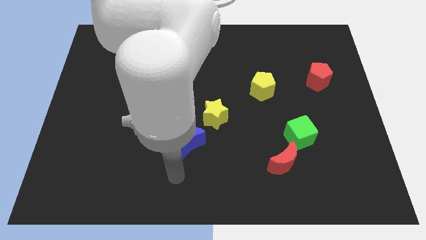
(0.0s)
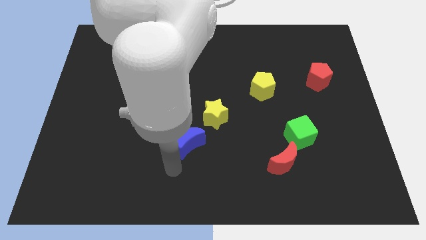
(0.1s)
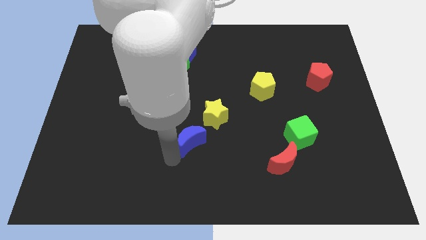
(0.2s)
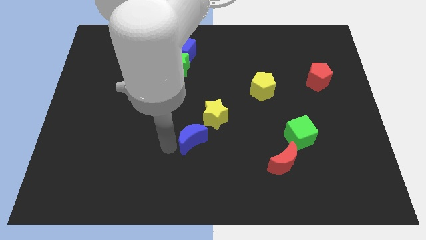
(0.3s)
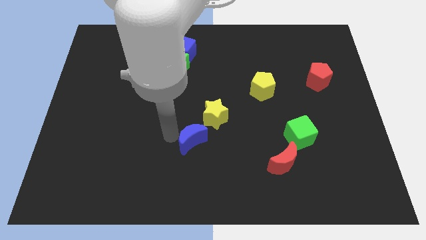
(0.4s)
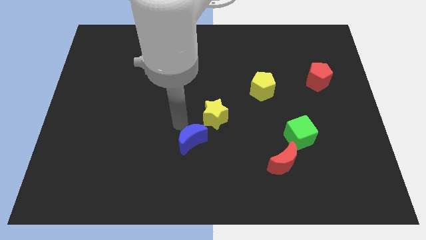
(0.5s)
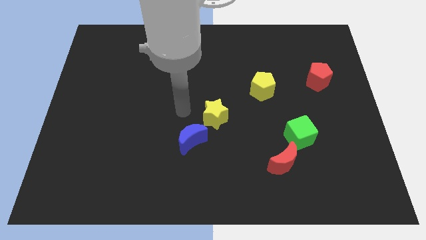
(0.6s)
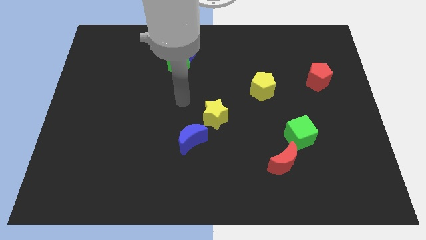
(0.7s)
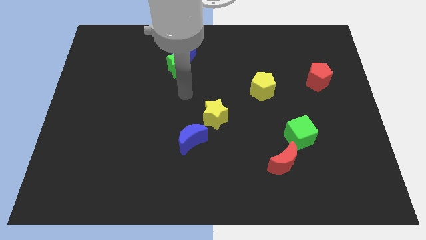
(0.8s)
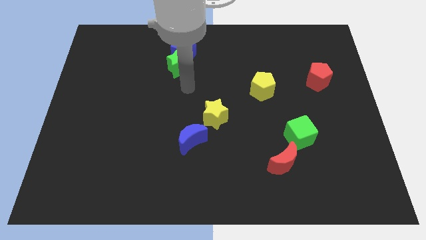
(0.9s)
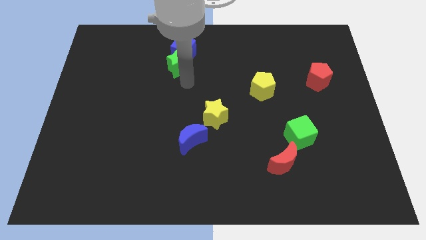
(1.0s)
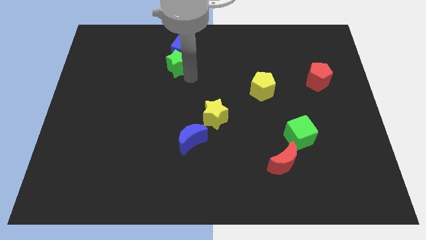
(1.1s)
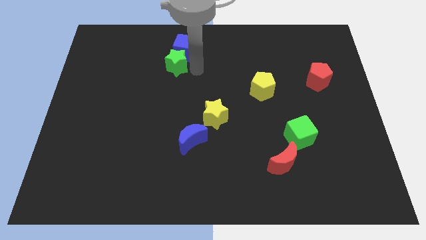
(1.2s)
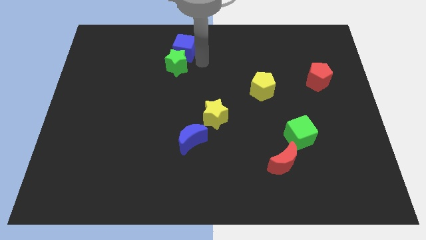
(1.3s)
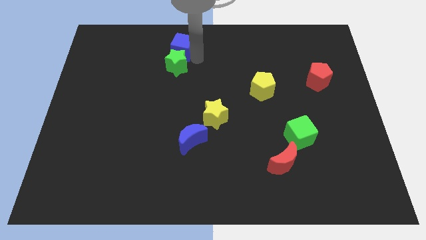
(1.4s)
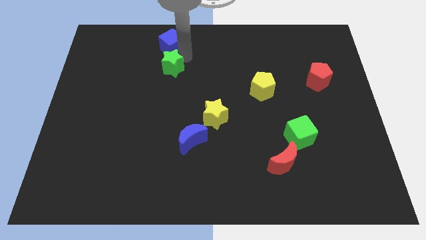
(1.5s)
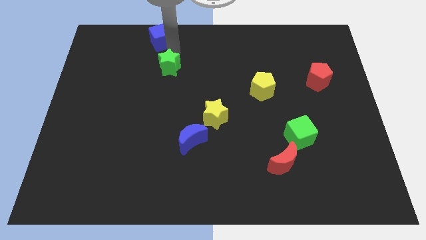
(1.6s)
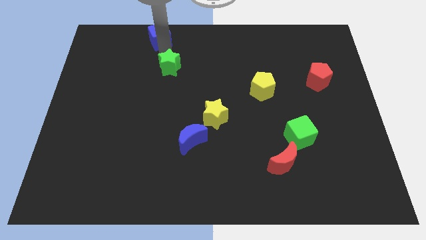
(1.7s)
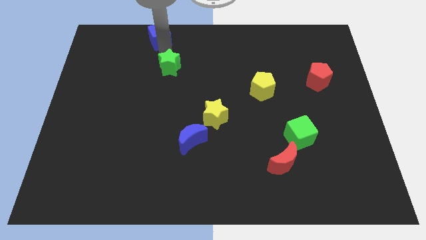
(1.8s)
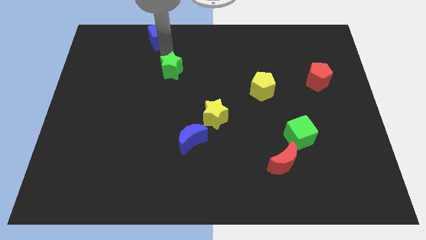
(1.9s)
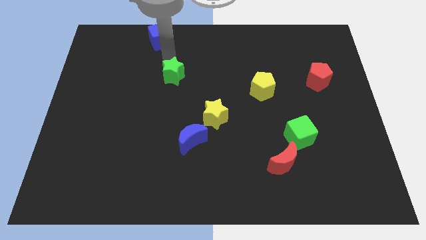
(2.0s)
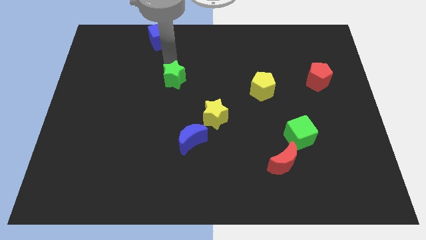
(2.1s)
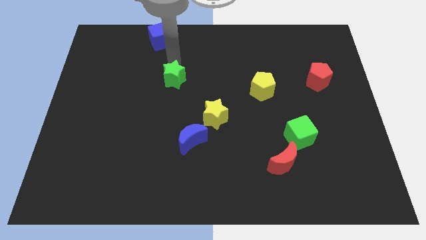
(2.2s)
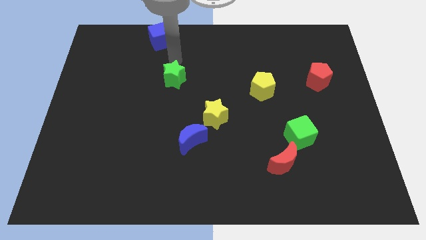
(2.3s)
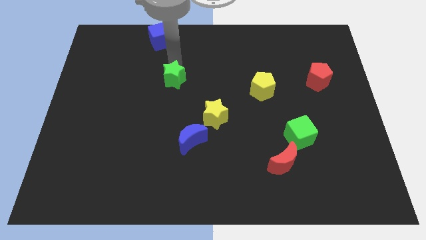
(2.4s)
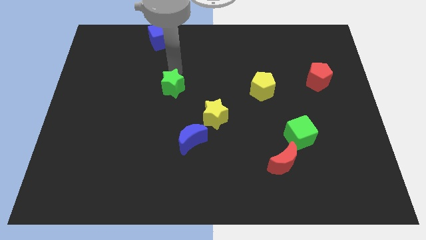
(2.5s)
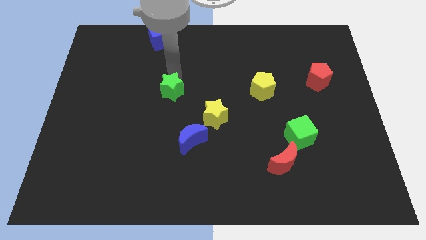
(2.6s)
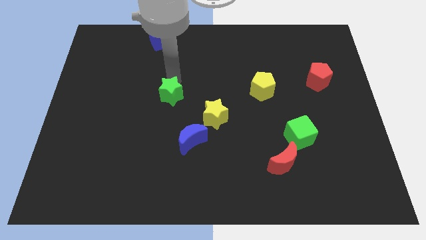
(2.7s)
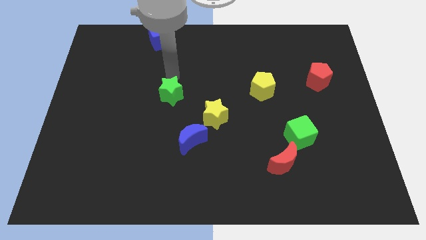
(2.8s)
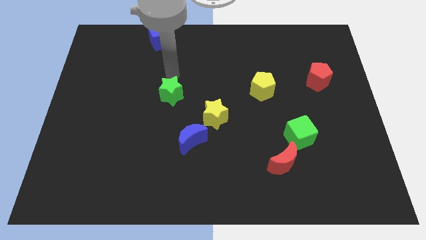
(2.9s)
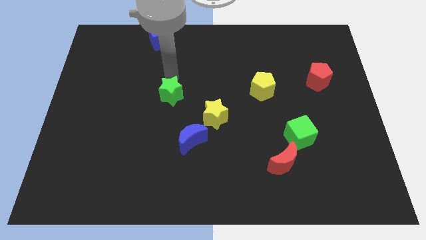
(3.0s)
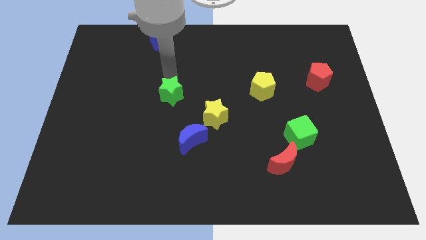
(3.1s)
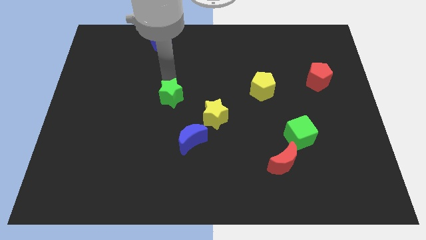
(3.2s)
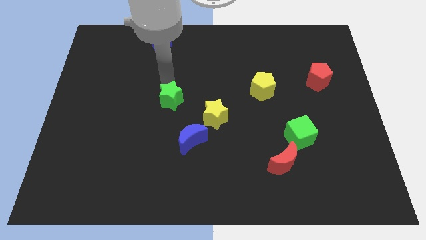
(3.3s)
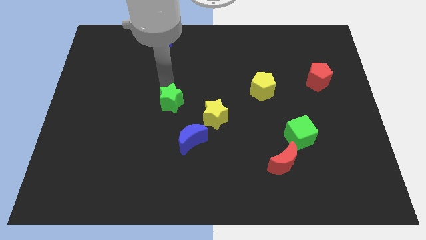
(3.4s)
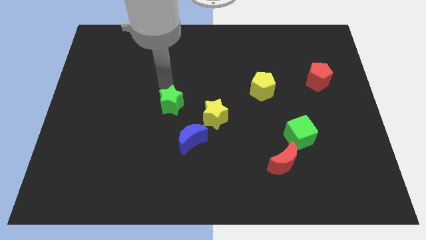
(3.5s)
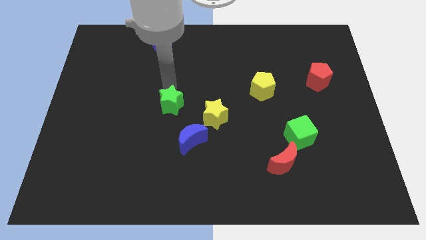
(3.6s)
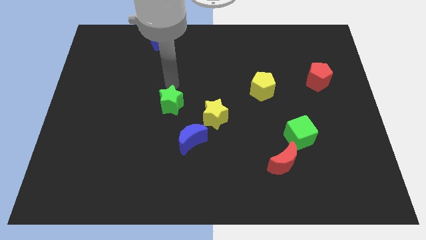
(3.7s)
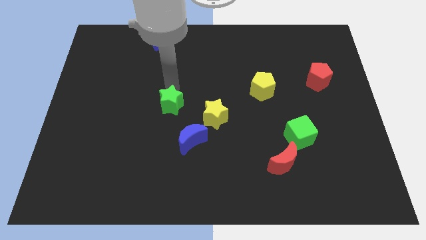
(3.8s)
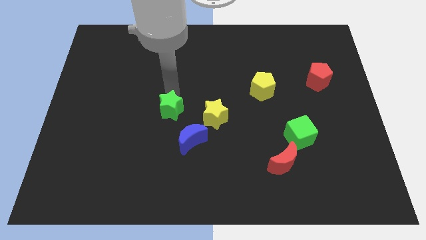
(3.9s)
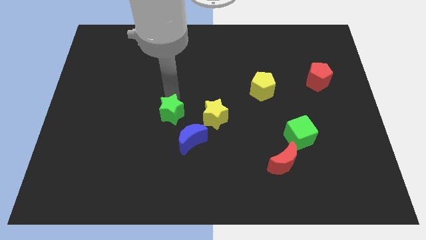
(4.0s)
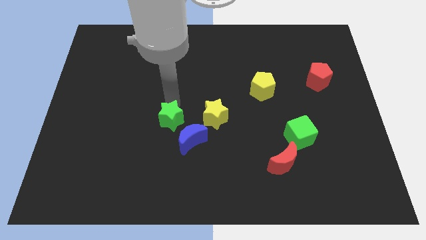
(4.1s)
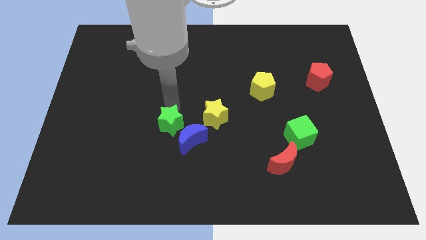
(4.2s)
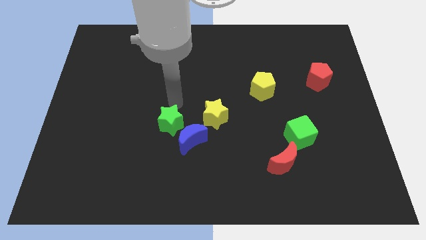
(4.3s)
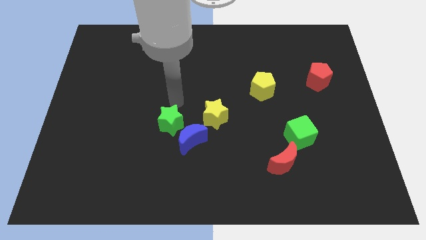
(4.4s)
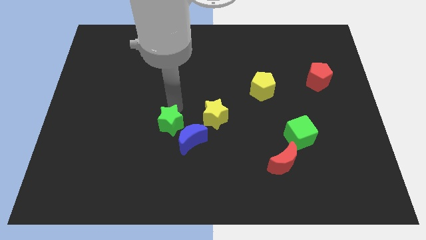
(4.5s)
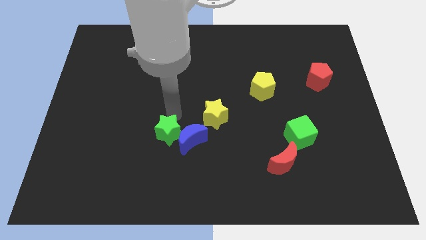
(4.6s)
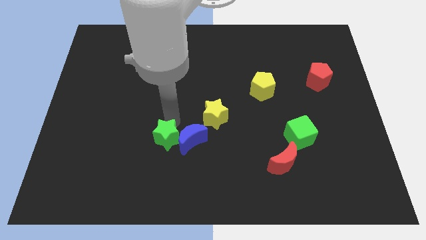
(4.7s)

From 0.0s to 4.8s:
move the green star to the bottom left of the blue moon

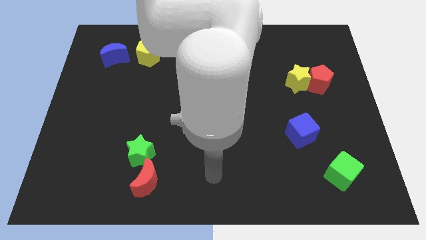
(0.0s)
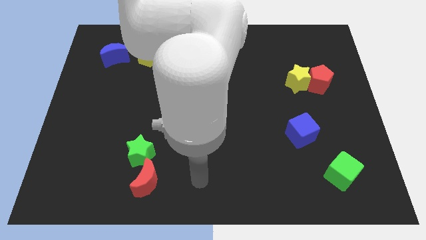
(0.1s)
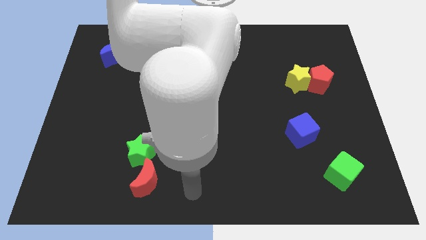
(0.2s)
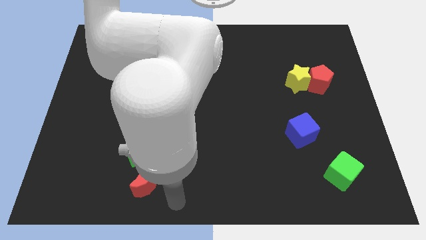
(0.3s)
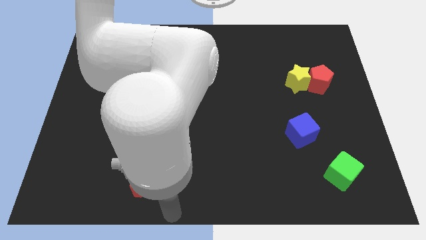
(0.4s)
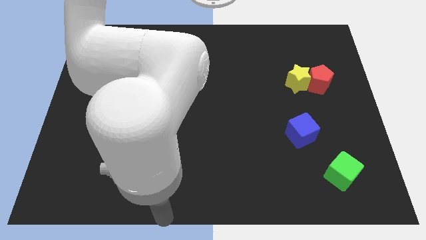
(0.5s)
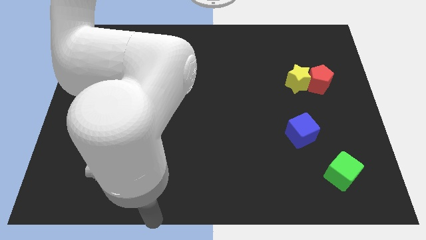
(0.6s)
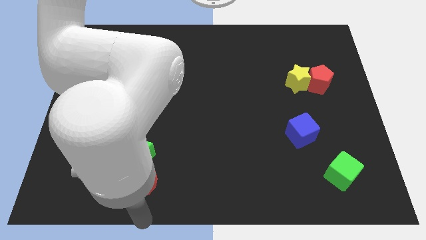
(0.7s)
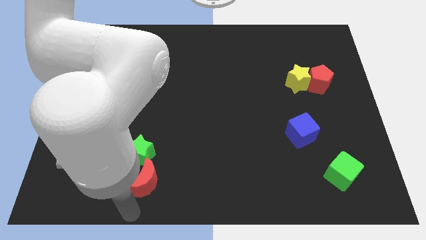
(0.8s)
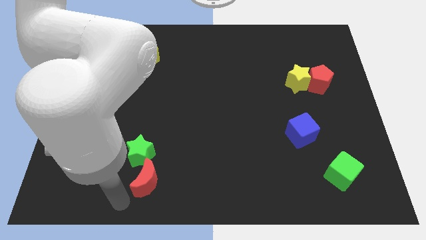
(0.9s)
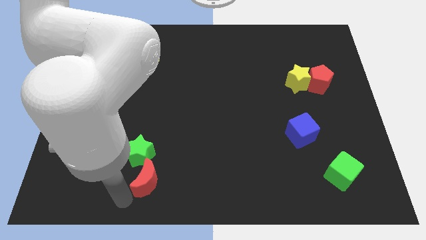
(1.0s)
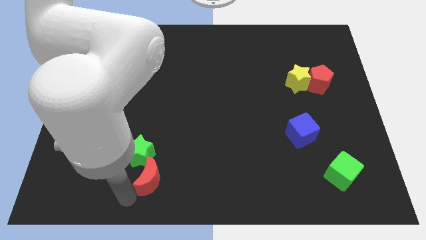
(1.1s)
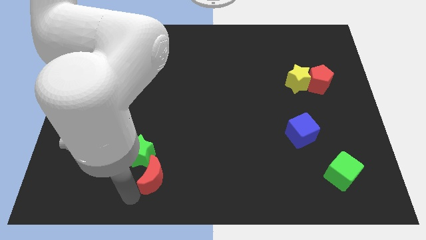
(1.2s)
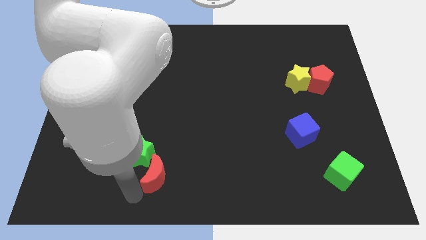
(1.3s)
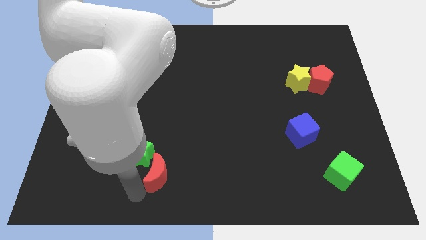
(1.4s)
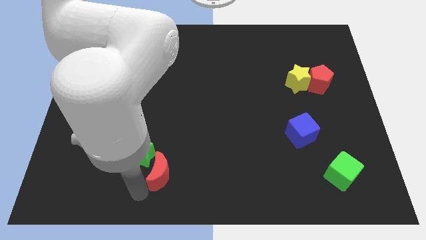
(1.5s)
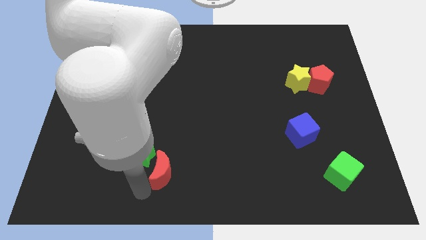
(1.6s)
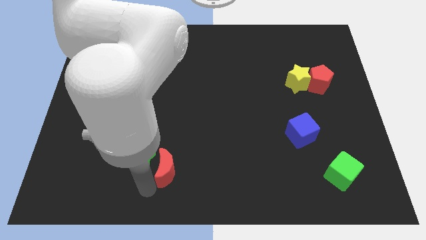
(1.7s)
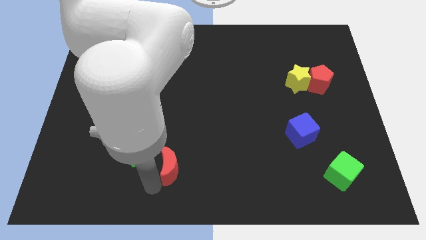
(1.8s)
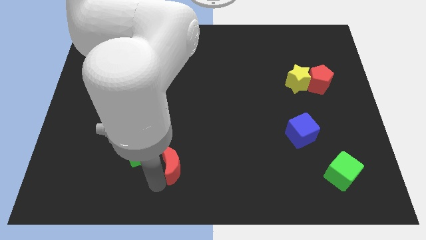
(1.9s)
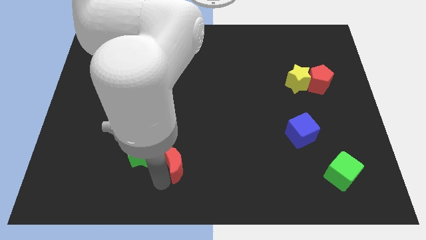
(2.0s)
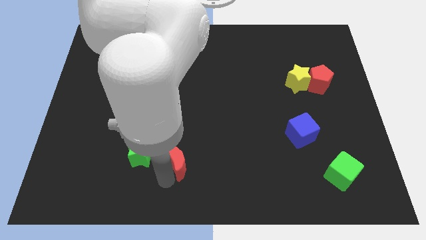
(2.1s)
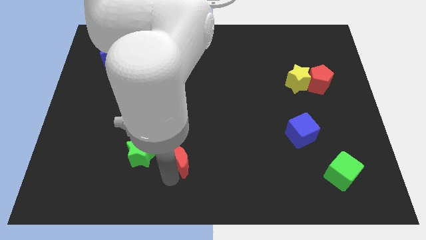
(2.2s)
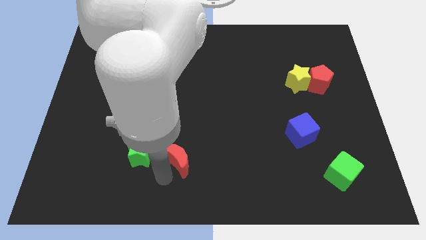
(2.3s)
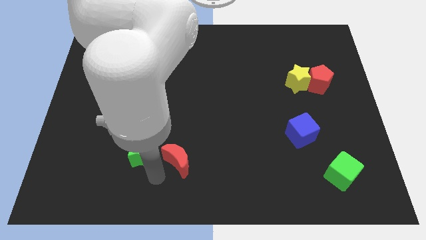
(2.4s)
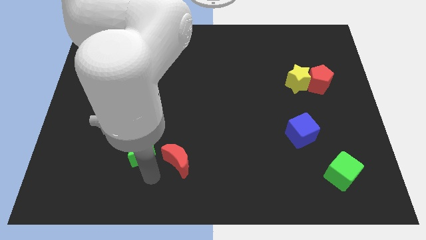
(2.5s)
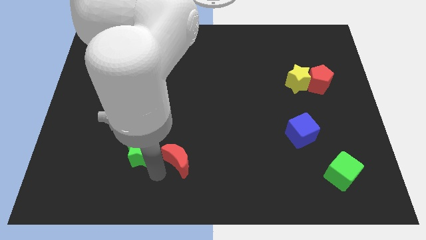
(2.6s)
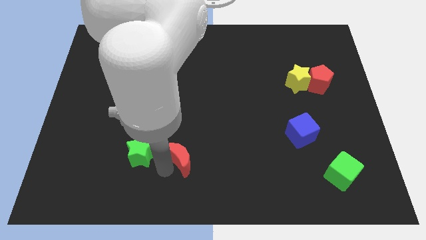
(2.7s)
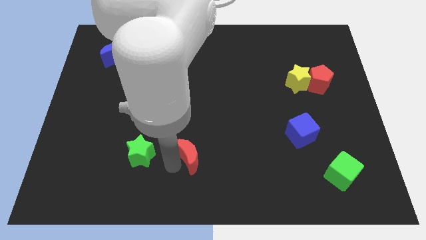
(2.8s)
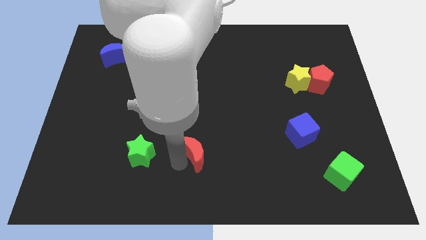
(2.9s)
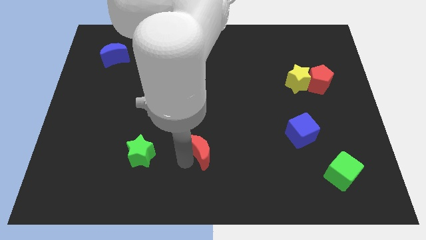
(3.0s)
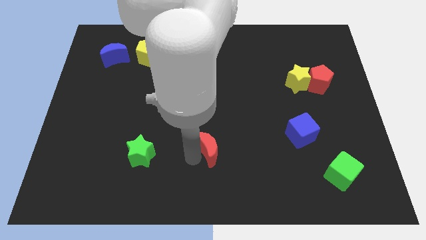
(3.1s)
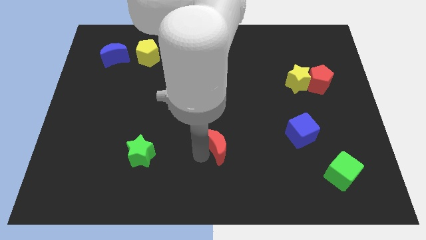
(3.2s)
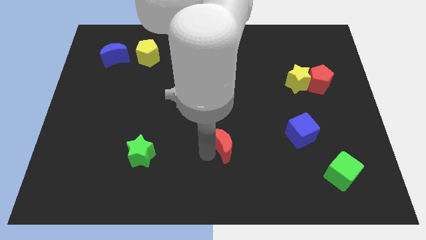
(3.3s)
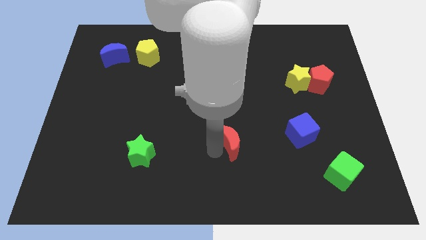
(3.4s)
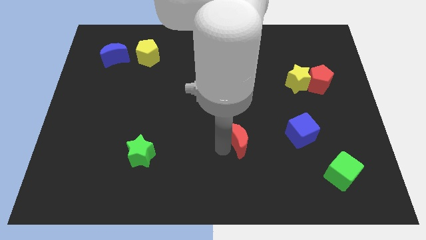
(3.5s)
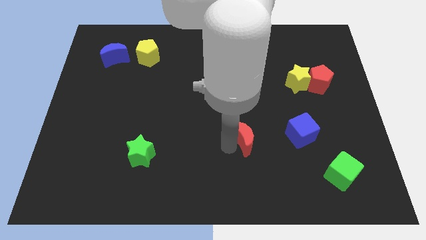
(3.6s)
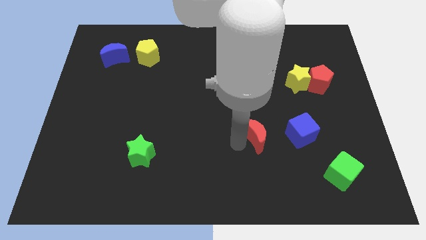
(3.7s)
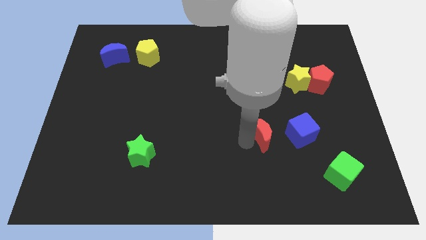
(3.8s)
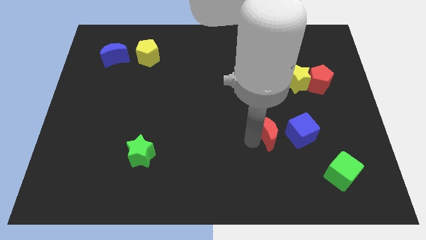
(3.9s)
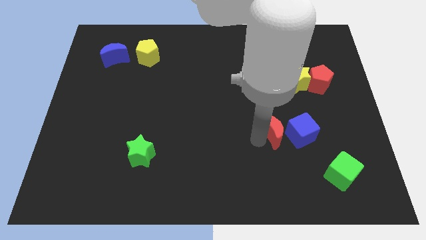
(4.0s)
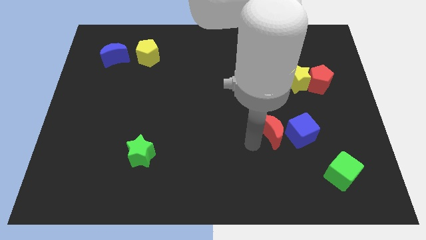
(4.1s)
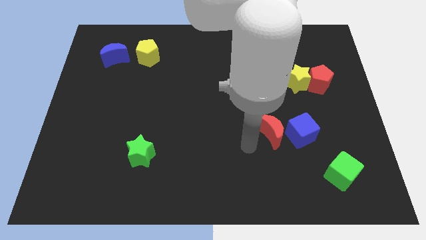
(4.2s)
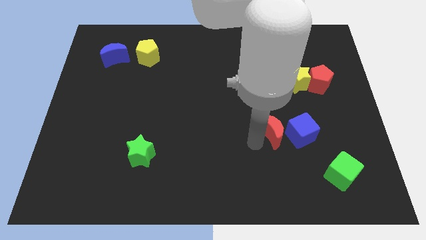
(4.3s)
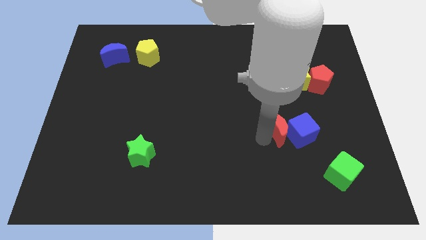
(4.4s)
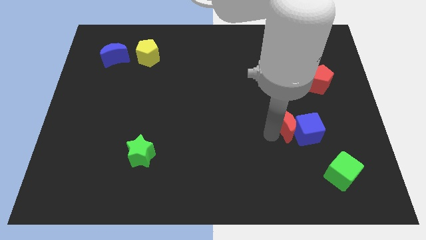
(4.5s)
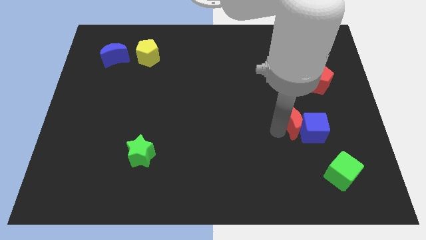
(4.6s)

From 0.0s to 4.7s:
move the red moon to the bottom side of the yellow star
